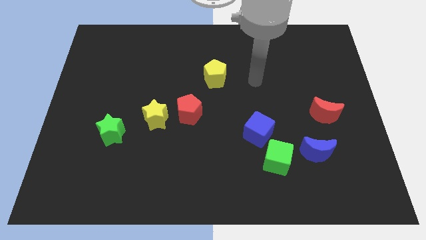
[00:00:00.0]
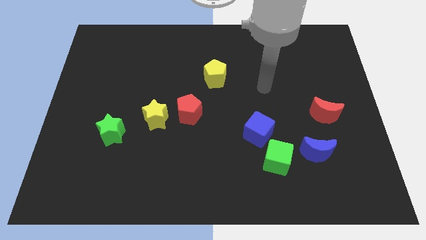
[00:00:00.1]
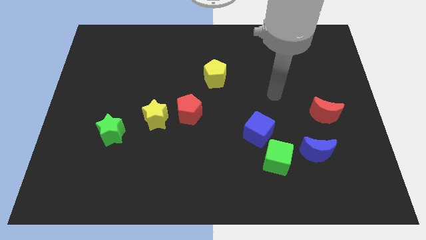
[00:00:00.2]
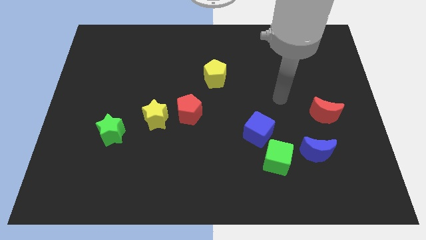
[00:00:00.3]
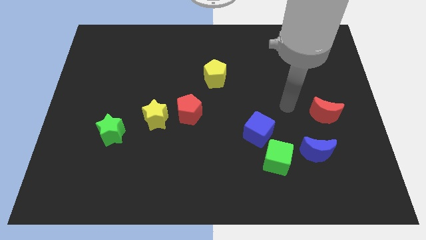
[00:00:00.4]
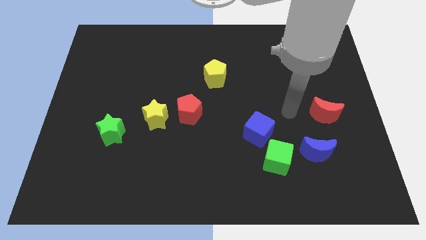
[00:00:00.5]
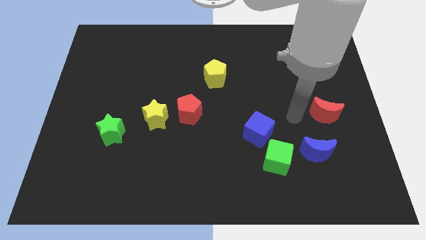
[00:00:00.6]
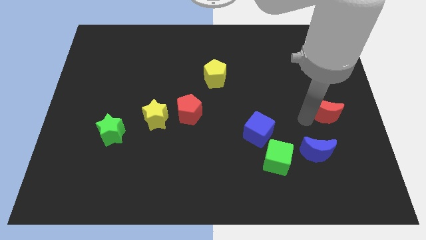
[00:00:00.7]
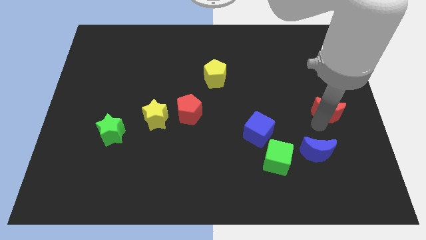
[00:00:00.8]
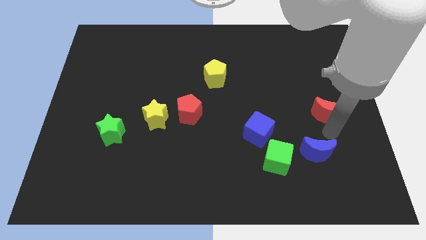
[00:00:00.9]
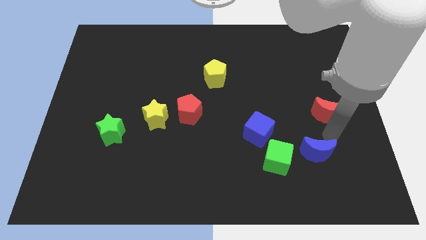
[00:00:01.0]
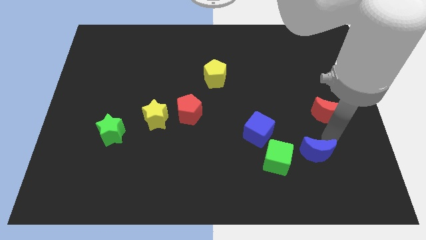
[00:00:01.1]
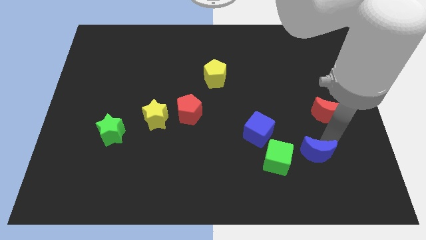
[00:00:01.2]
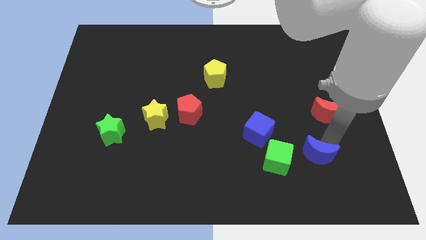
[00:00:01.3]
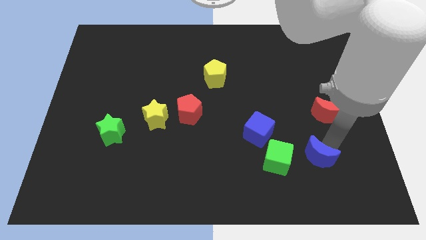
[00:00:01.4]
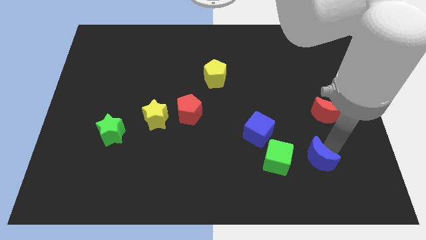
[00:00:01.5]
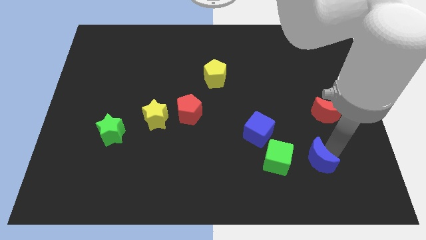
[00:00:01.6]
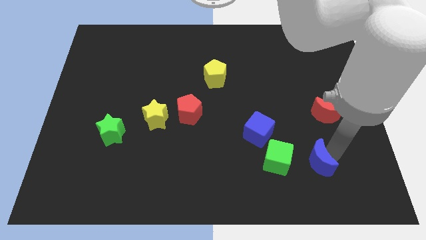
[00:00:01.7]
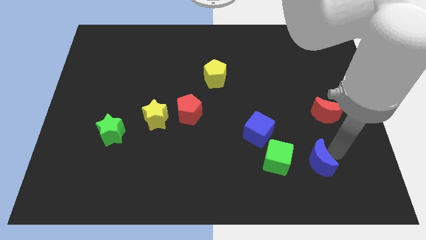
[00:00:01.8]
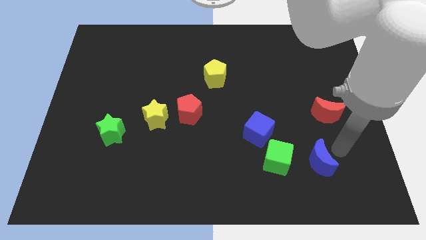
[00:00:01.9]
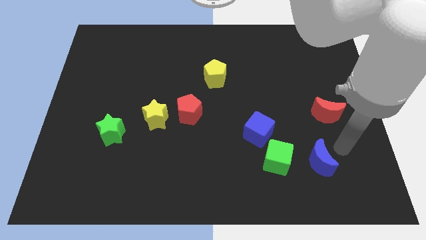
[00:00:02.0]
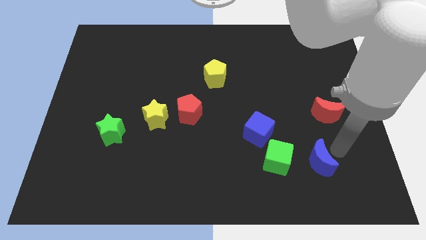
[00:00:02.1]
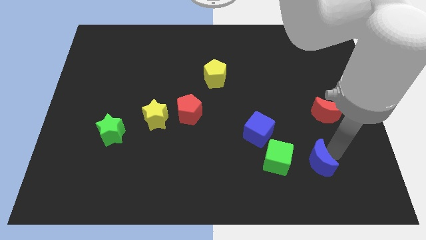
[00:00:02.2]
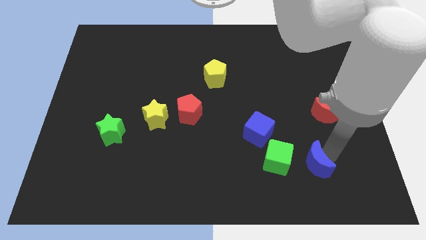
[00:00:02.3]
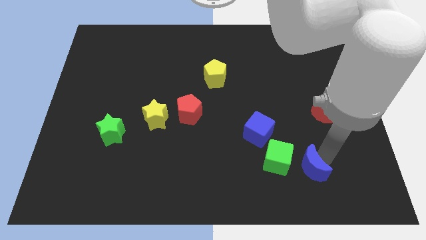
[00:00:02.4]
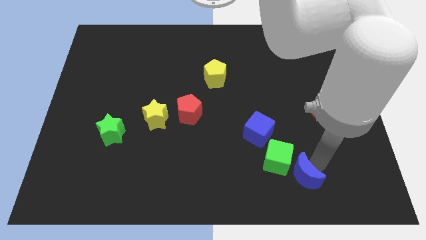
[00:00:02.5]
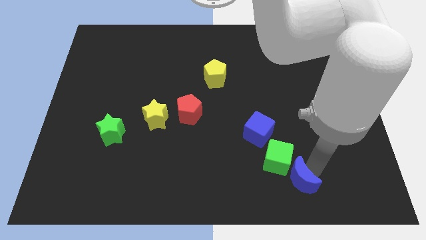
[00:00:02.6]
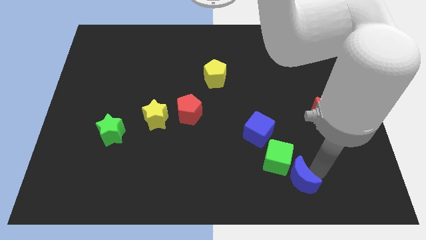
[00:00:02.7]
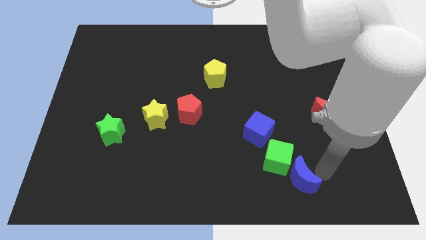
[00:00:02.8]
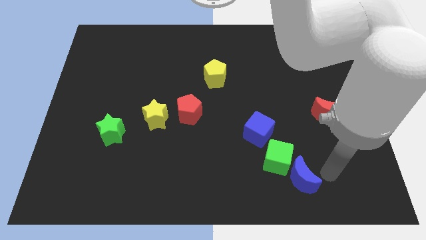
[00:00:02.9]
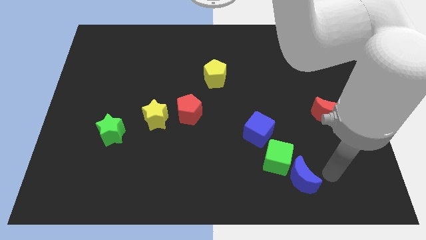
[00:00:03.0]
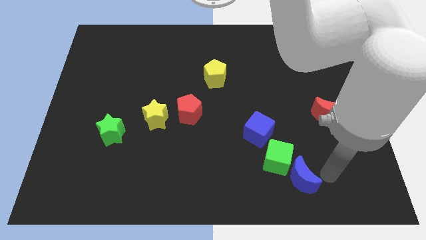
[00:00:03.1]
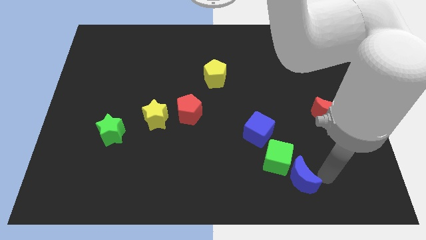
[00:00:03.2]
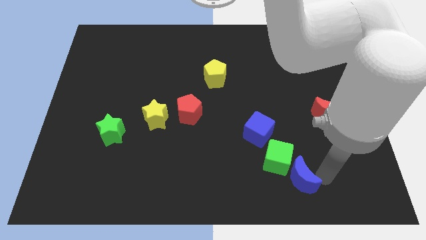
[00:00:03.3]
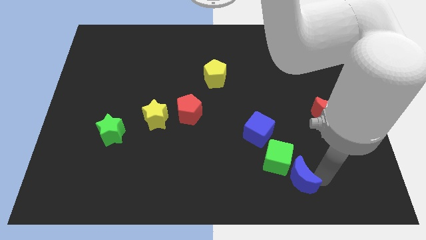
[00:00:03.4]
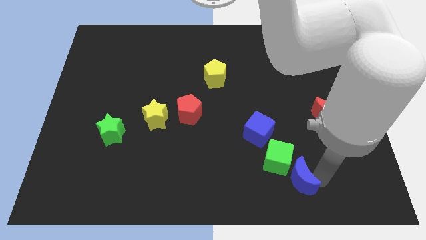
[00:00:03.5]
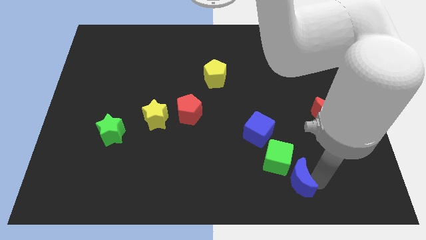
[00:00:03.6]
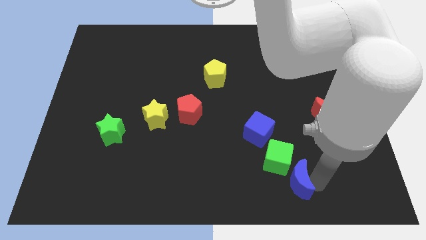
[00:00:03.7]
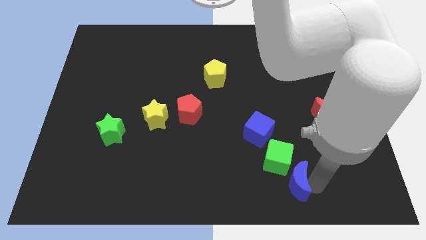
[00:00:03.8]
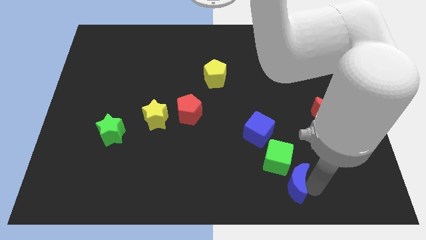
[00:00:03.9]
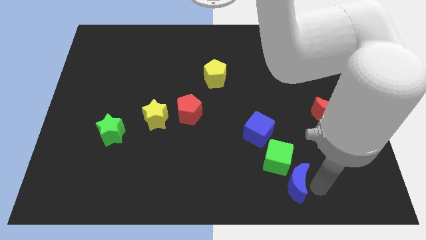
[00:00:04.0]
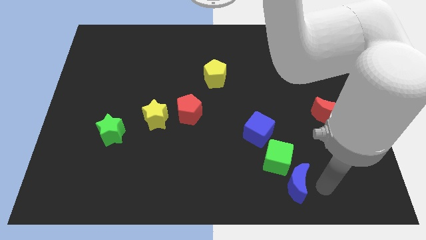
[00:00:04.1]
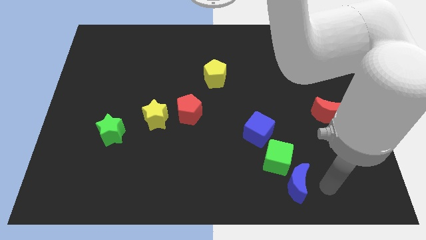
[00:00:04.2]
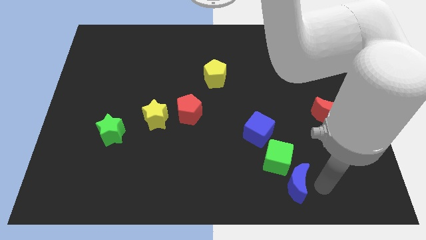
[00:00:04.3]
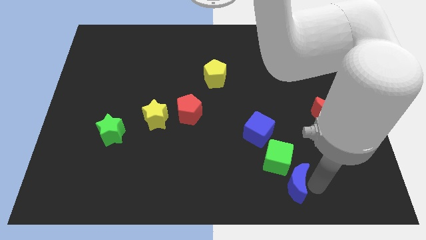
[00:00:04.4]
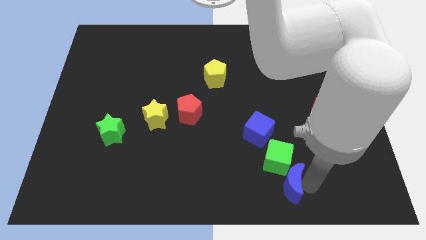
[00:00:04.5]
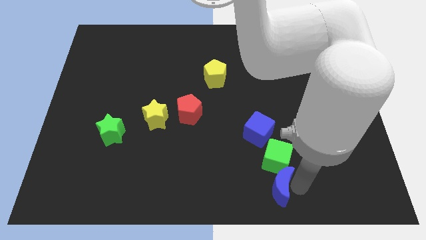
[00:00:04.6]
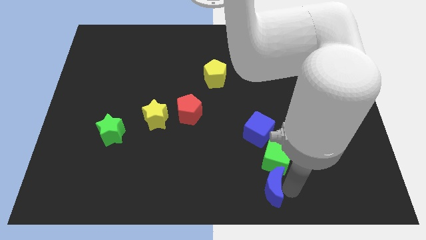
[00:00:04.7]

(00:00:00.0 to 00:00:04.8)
push the blue moon left a bit

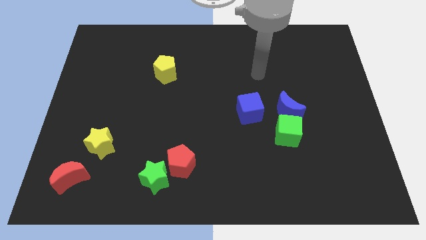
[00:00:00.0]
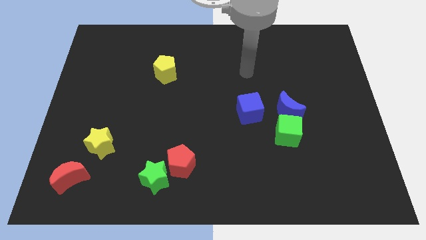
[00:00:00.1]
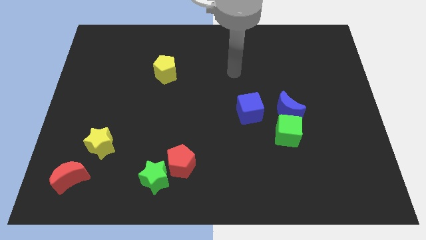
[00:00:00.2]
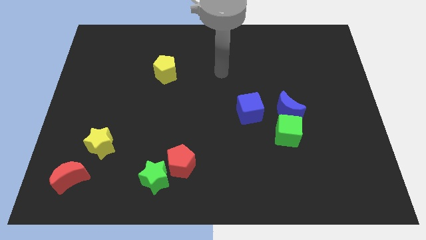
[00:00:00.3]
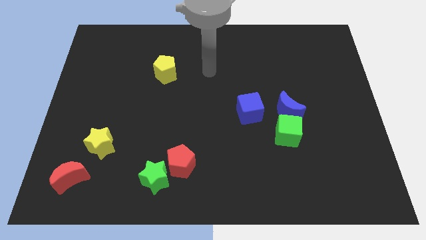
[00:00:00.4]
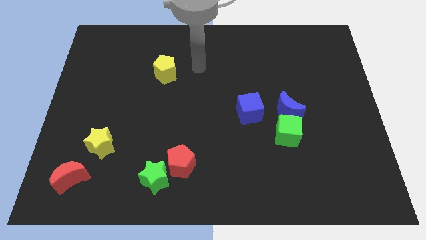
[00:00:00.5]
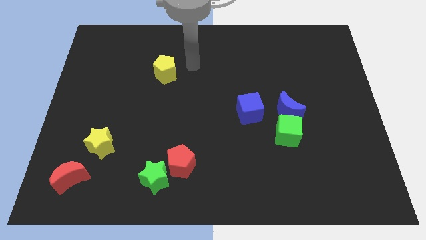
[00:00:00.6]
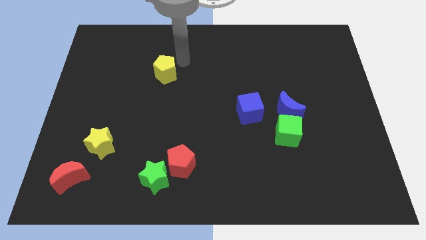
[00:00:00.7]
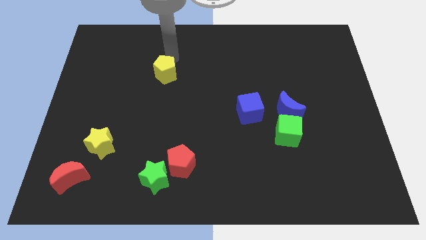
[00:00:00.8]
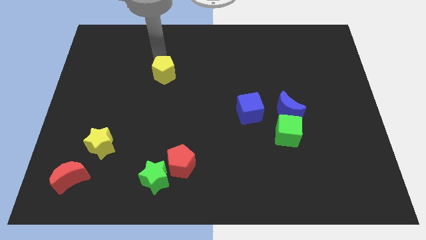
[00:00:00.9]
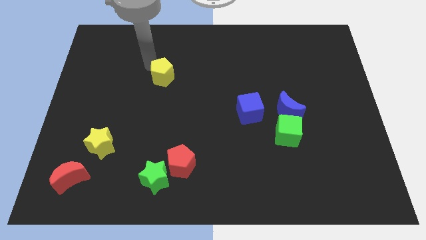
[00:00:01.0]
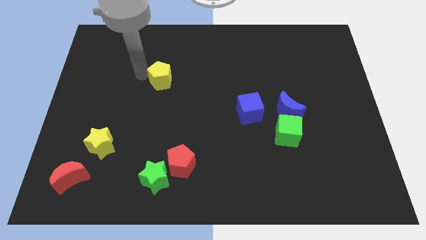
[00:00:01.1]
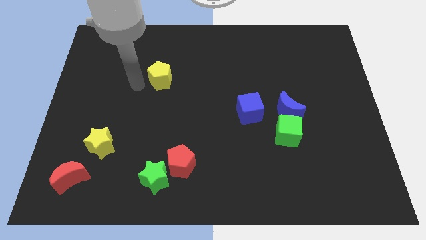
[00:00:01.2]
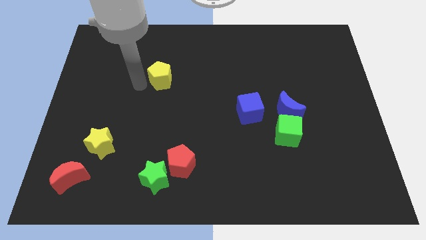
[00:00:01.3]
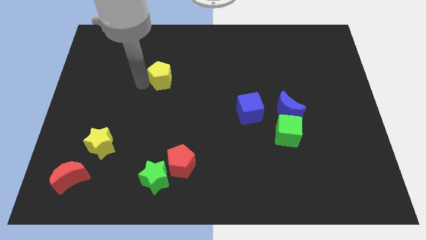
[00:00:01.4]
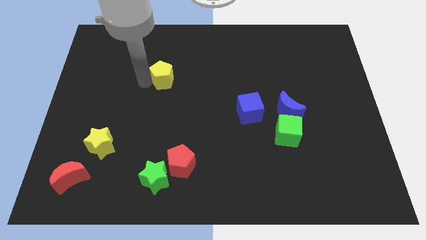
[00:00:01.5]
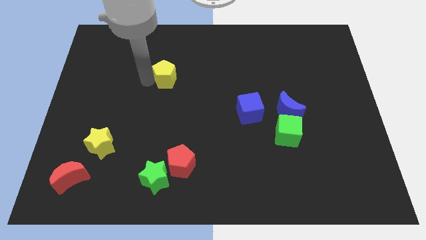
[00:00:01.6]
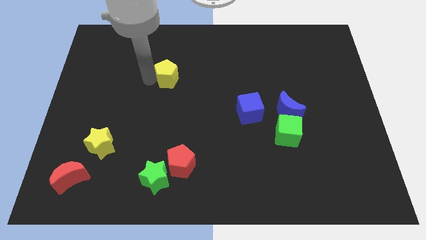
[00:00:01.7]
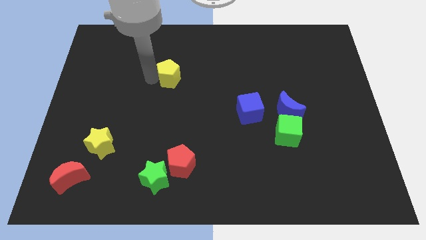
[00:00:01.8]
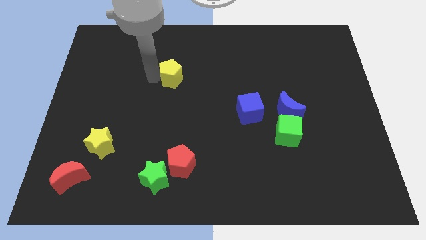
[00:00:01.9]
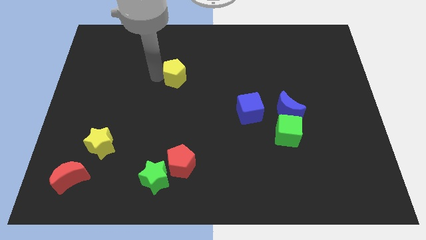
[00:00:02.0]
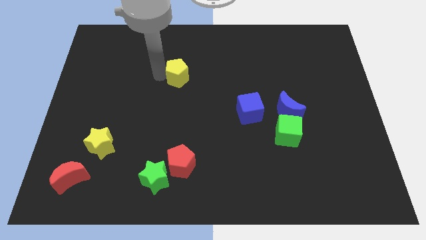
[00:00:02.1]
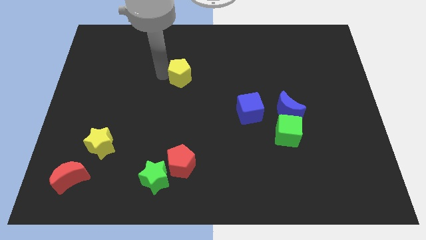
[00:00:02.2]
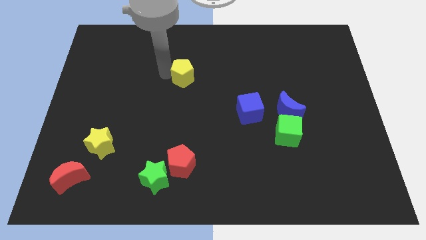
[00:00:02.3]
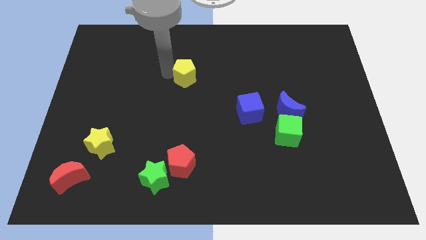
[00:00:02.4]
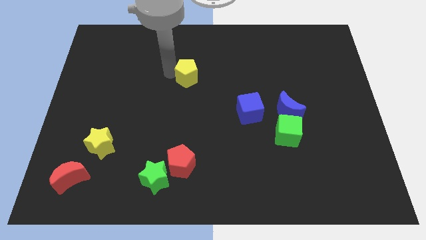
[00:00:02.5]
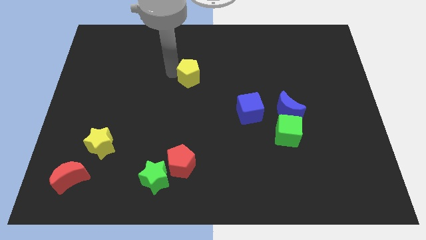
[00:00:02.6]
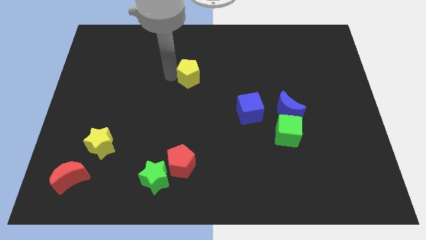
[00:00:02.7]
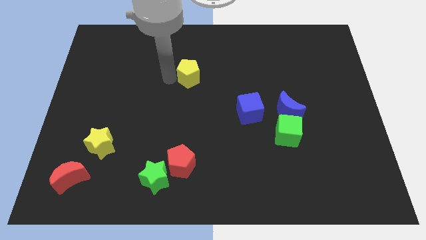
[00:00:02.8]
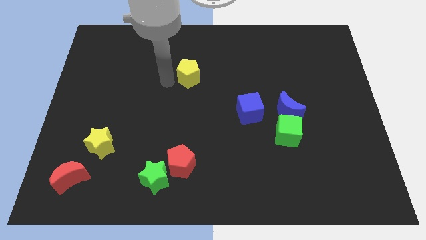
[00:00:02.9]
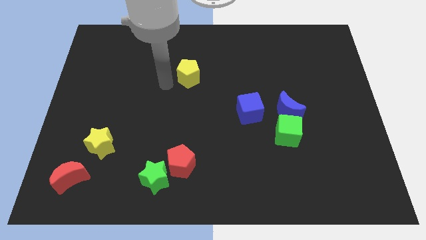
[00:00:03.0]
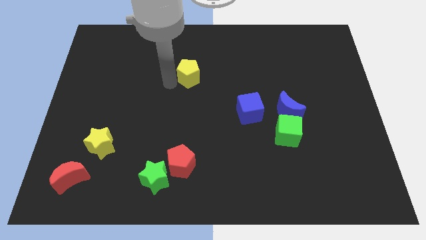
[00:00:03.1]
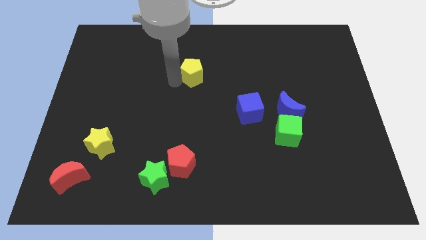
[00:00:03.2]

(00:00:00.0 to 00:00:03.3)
slightly move the yellow pentagon to the right
